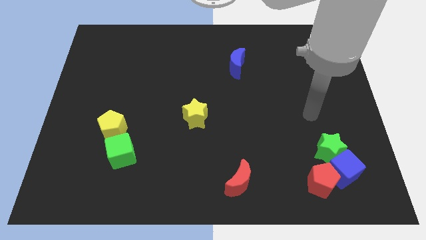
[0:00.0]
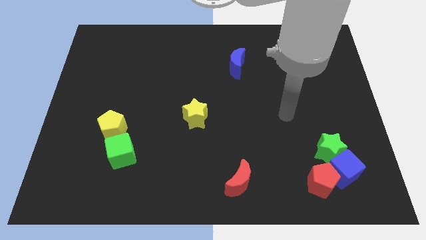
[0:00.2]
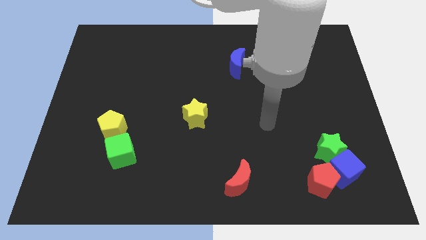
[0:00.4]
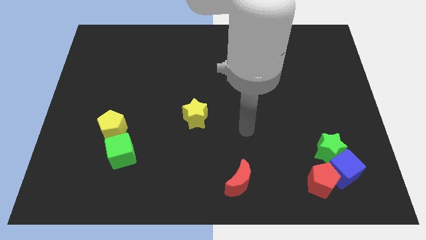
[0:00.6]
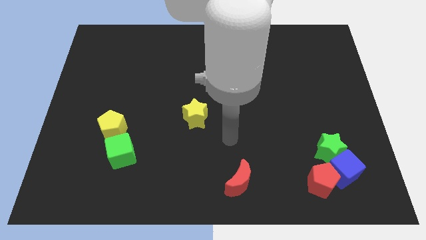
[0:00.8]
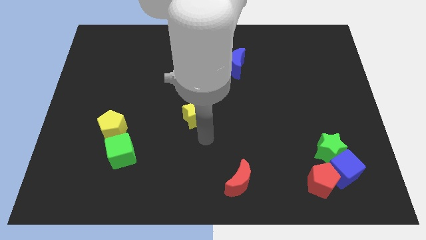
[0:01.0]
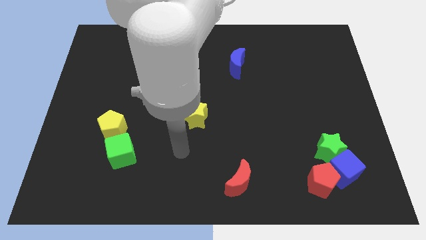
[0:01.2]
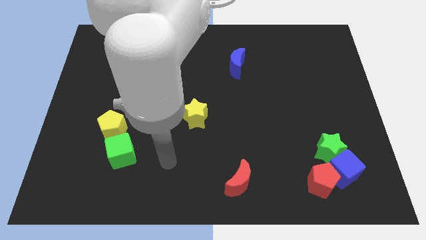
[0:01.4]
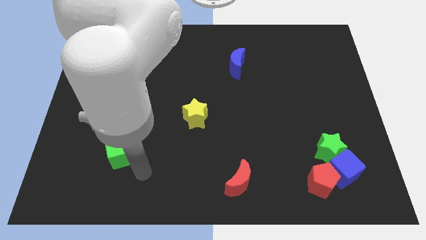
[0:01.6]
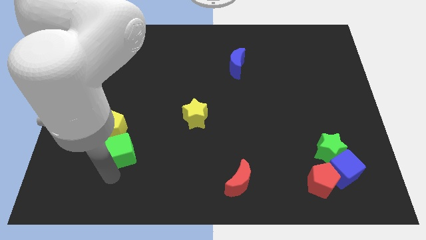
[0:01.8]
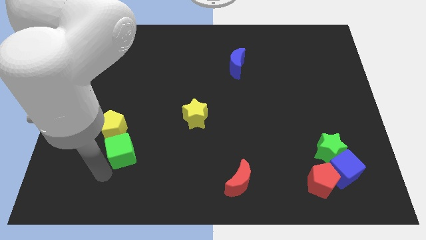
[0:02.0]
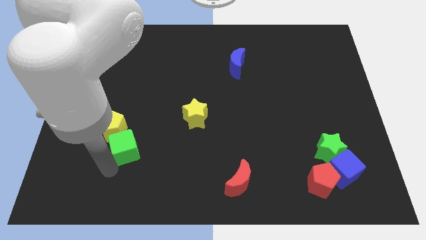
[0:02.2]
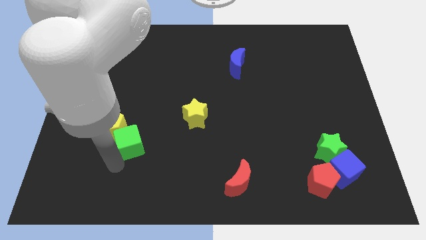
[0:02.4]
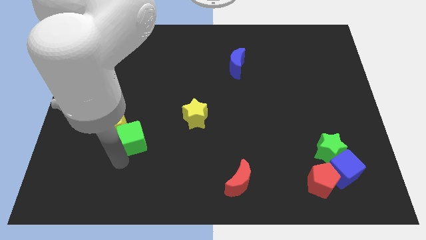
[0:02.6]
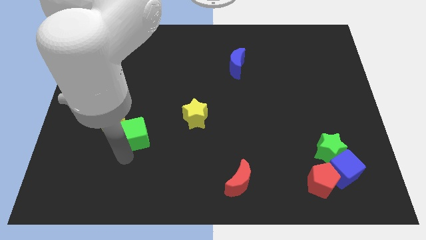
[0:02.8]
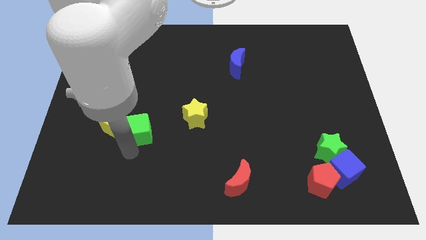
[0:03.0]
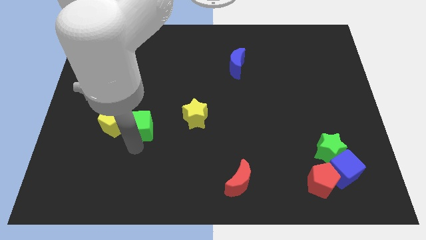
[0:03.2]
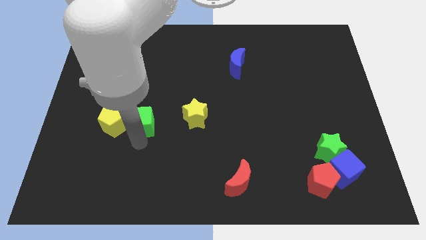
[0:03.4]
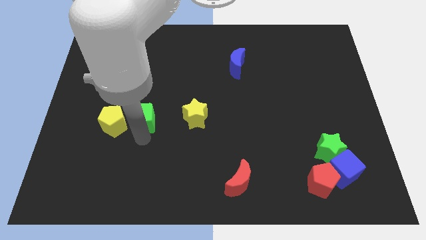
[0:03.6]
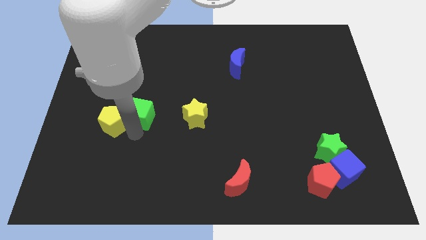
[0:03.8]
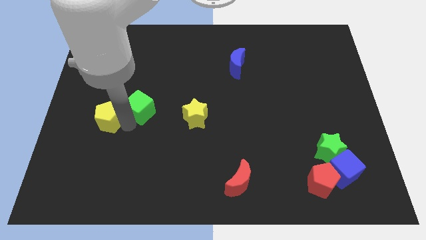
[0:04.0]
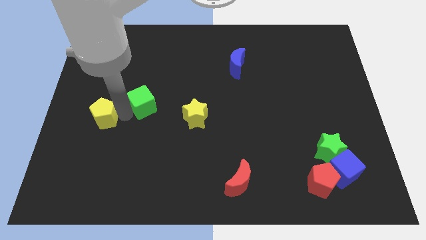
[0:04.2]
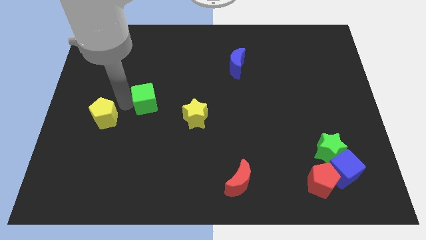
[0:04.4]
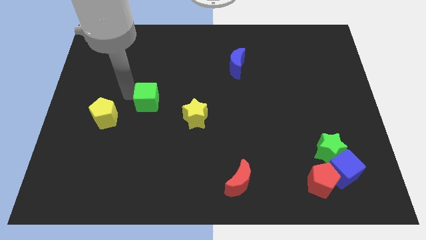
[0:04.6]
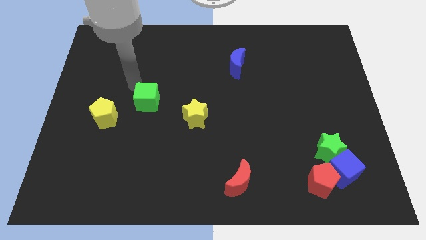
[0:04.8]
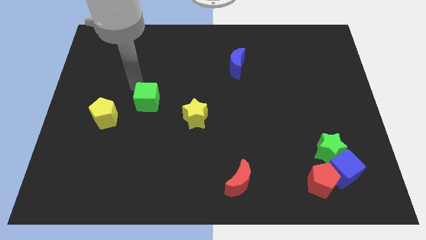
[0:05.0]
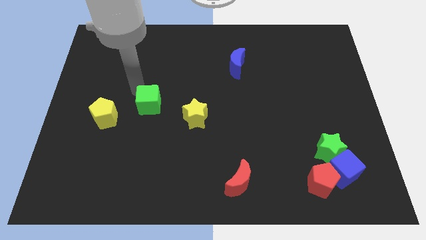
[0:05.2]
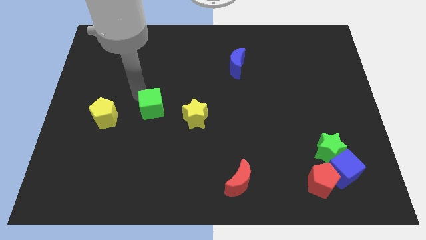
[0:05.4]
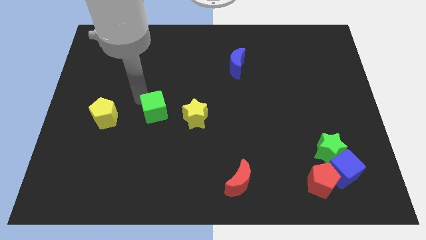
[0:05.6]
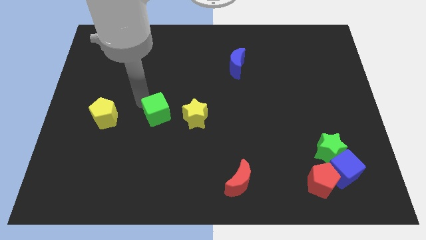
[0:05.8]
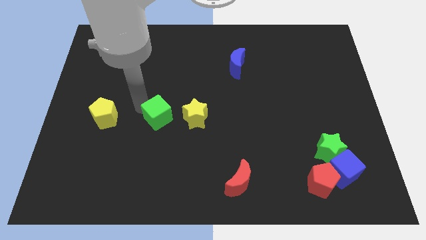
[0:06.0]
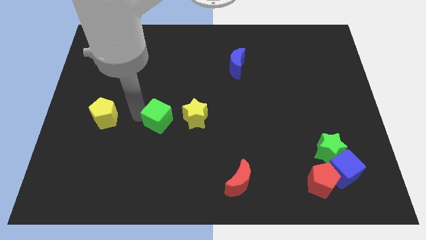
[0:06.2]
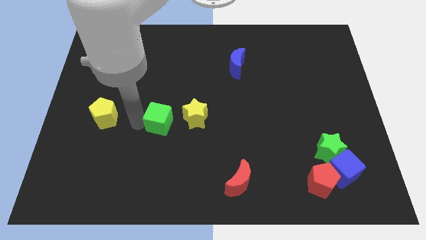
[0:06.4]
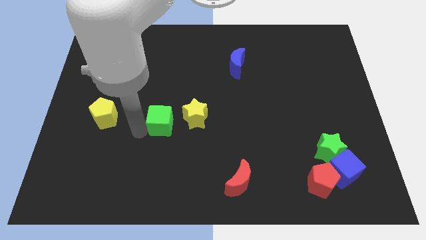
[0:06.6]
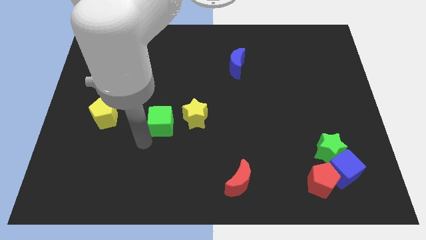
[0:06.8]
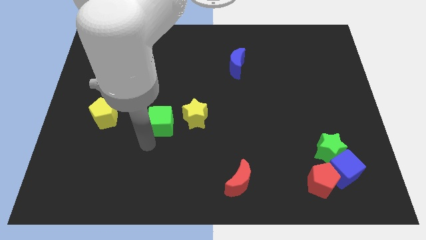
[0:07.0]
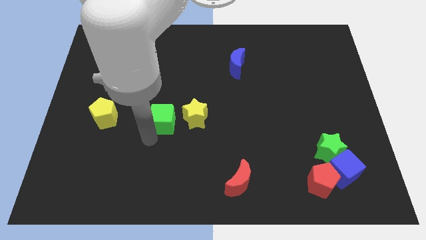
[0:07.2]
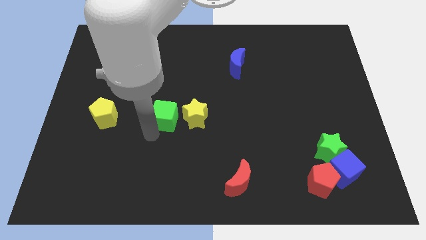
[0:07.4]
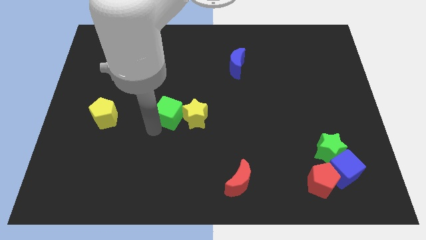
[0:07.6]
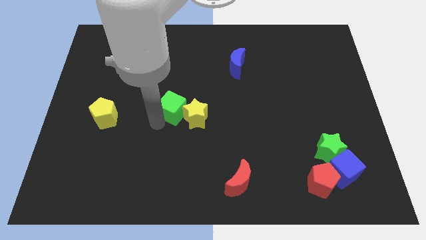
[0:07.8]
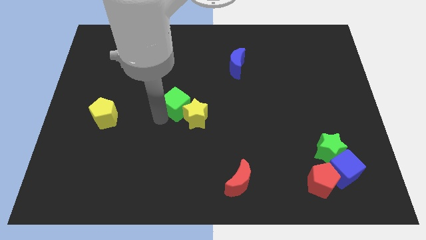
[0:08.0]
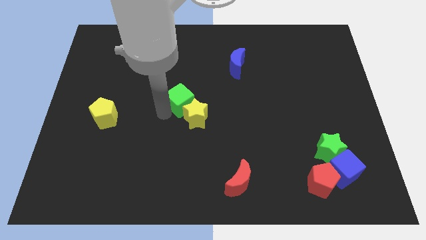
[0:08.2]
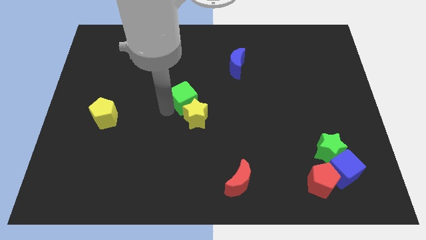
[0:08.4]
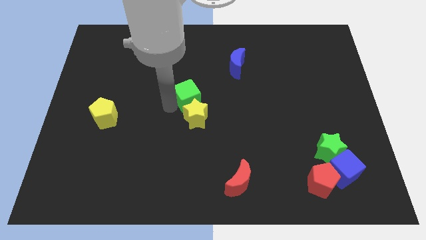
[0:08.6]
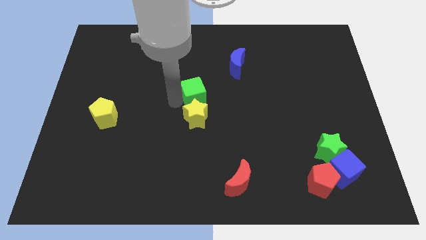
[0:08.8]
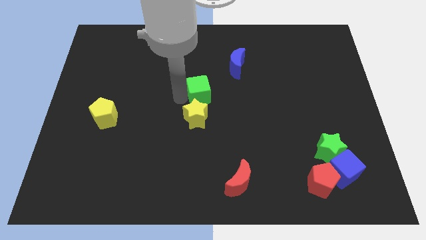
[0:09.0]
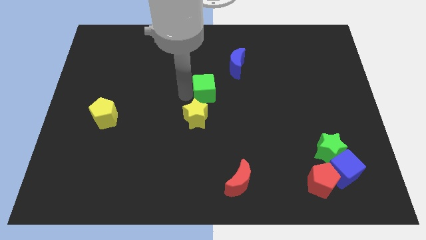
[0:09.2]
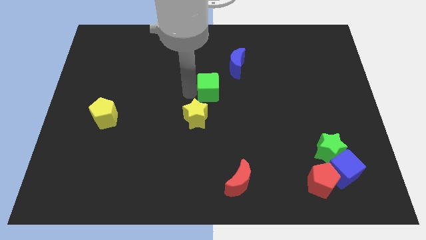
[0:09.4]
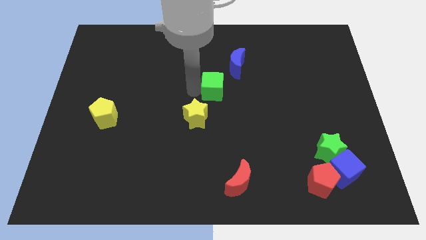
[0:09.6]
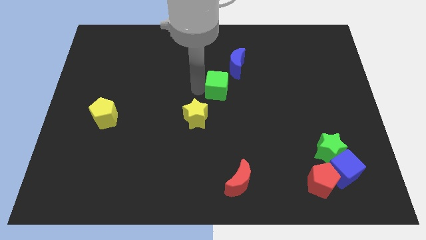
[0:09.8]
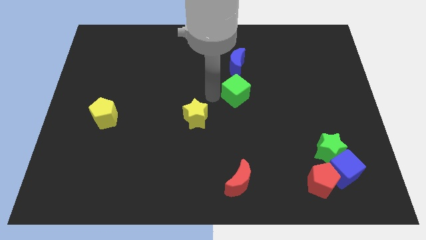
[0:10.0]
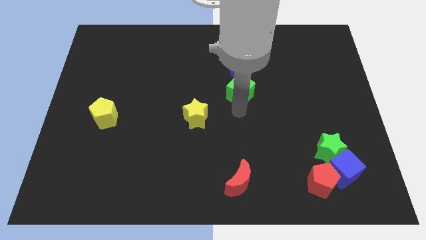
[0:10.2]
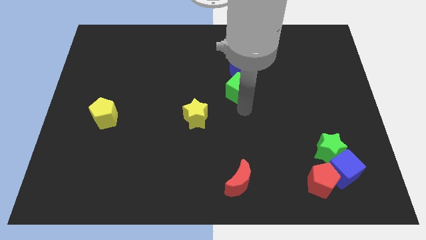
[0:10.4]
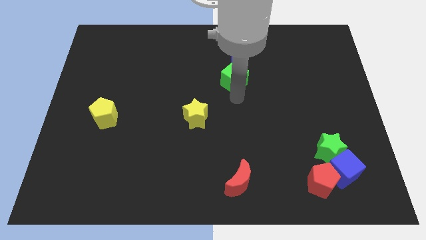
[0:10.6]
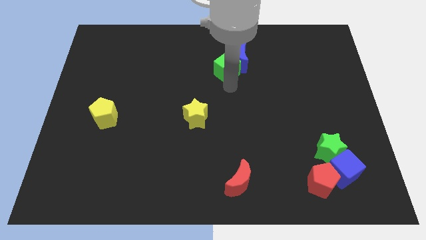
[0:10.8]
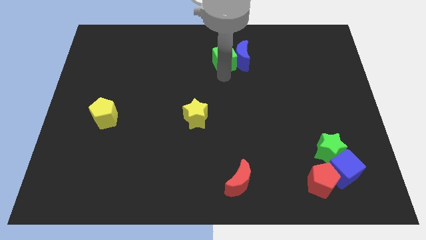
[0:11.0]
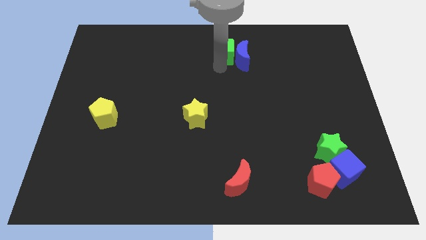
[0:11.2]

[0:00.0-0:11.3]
push the green cube to the towards your base

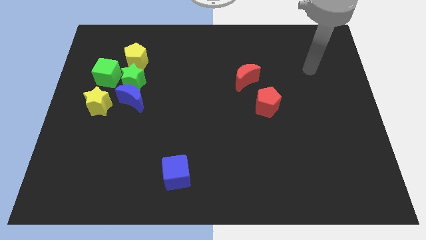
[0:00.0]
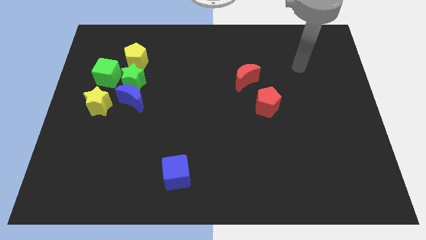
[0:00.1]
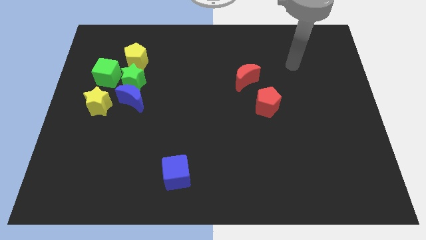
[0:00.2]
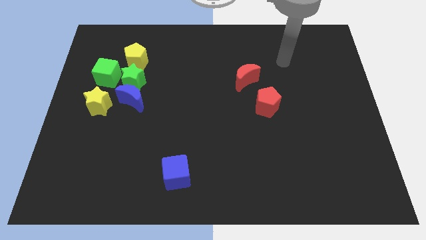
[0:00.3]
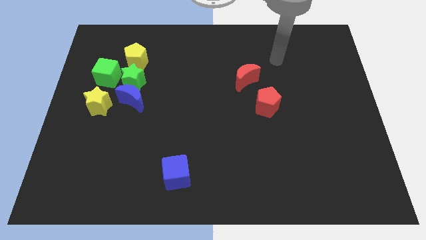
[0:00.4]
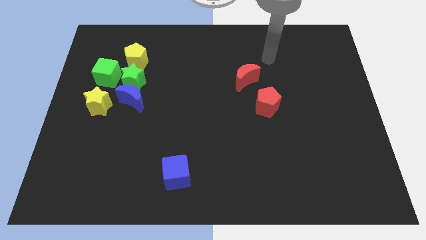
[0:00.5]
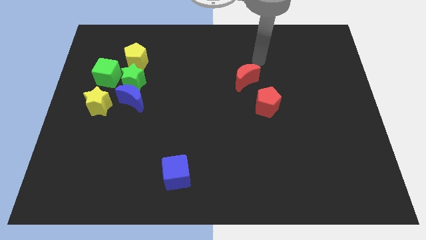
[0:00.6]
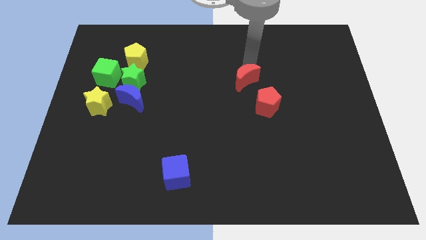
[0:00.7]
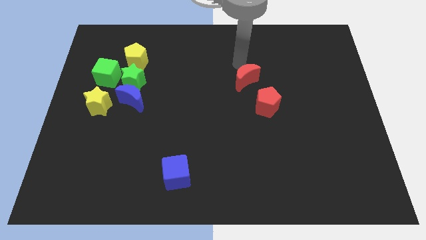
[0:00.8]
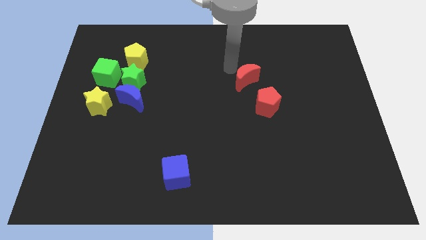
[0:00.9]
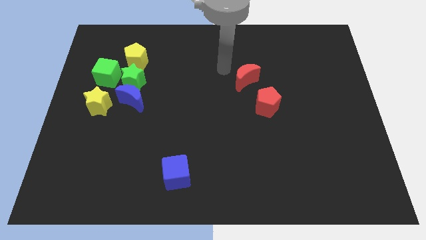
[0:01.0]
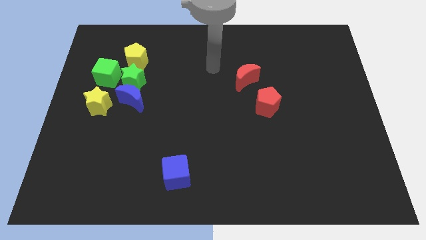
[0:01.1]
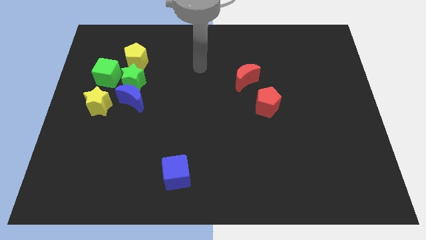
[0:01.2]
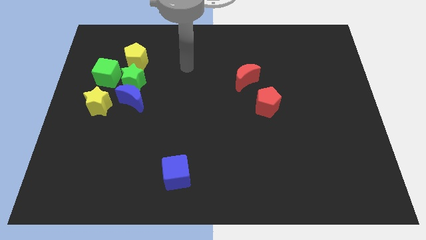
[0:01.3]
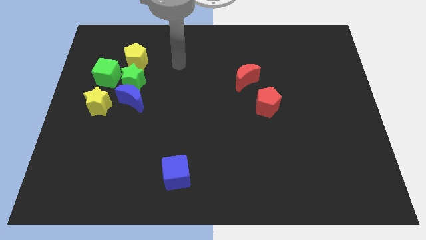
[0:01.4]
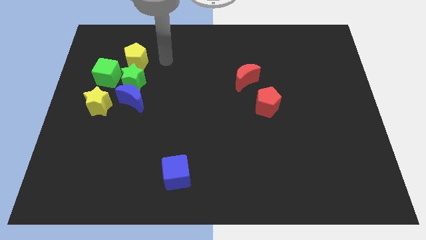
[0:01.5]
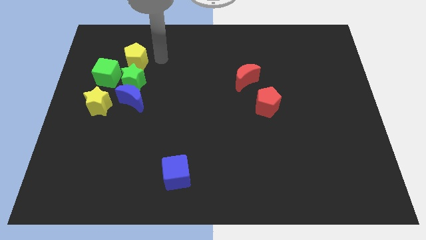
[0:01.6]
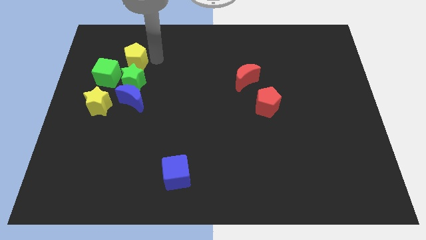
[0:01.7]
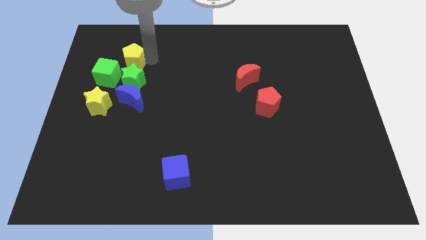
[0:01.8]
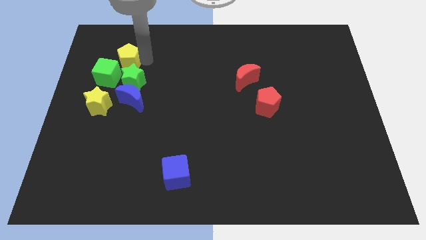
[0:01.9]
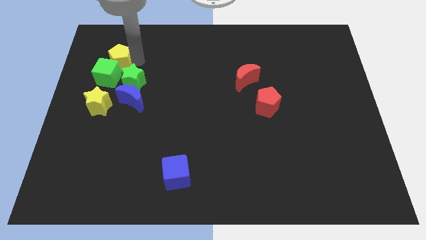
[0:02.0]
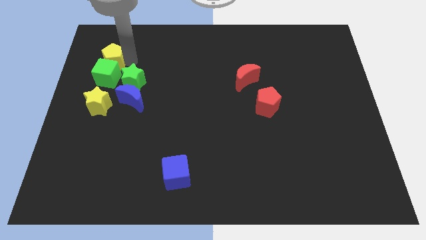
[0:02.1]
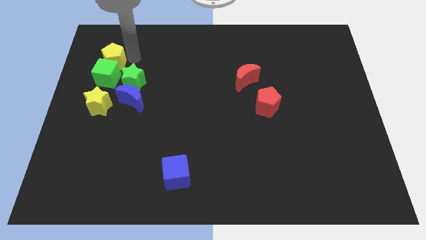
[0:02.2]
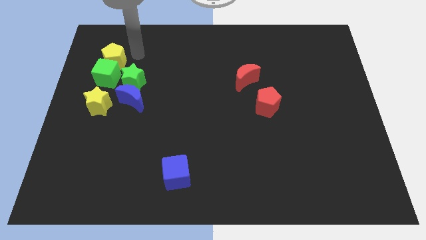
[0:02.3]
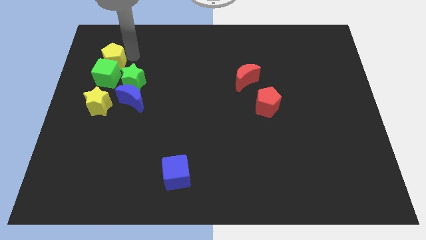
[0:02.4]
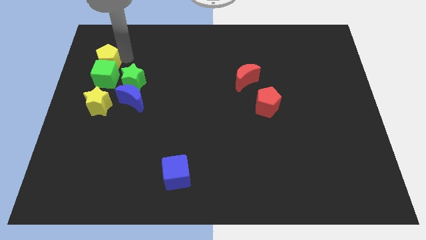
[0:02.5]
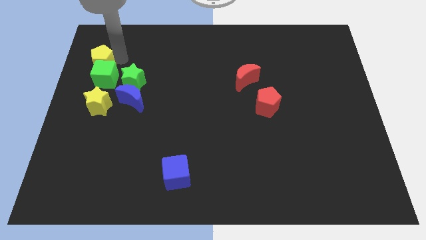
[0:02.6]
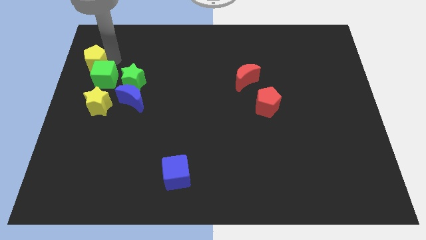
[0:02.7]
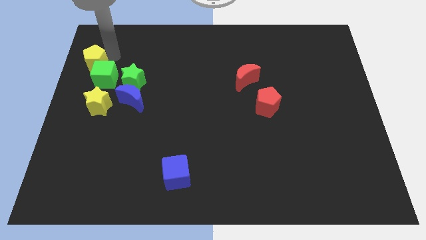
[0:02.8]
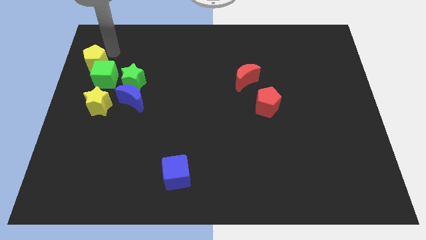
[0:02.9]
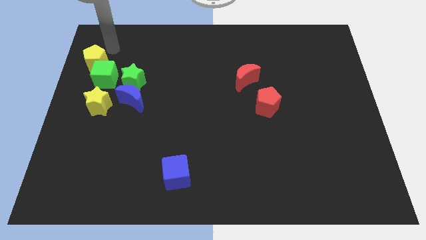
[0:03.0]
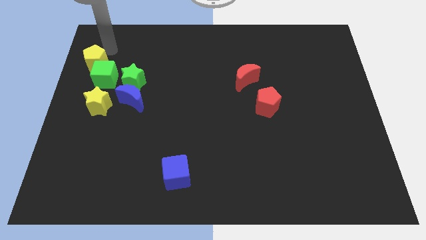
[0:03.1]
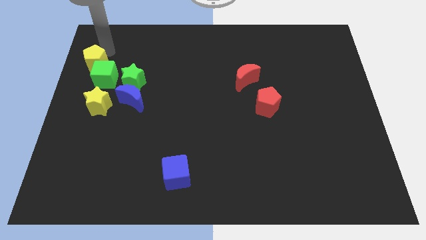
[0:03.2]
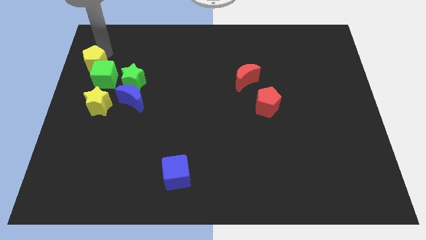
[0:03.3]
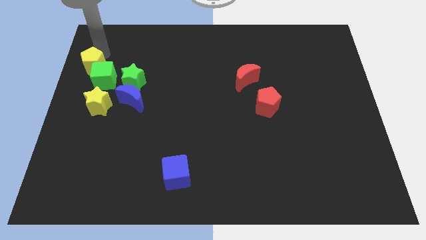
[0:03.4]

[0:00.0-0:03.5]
push the yellow pentagon to the center left
